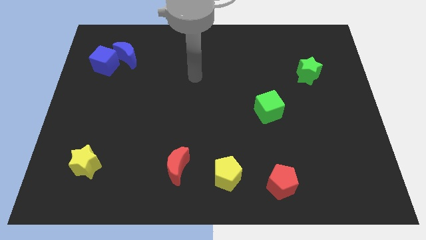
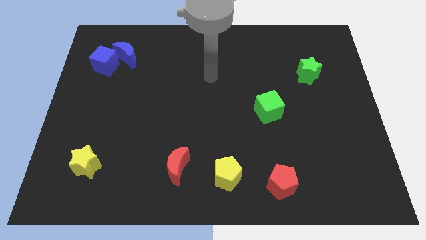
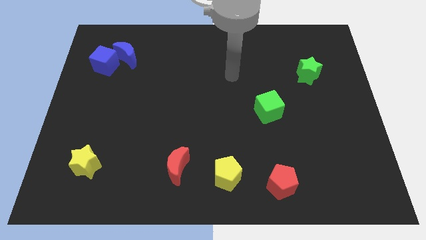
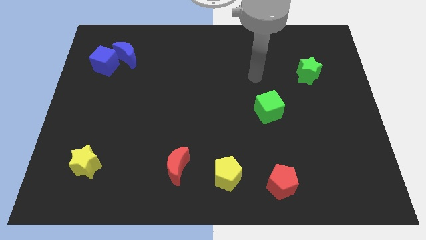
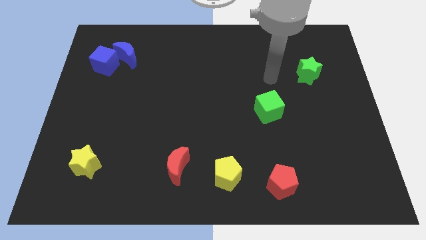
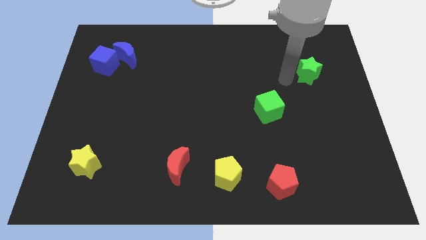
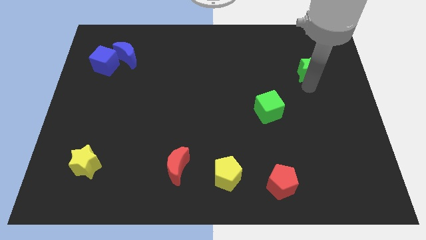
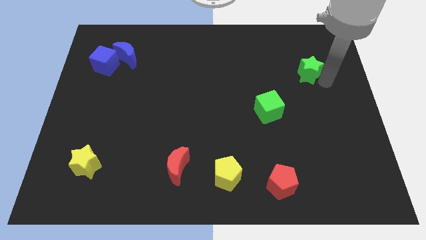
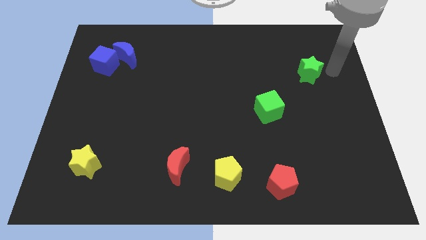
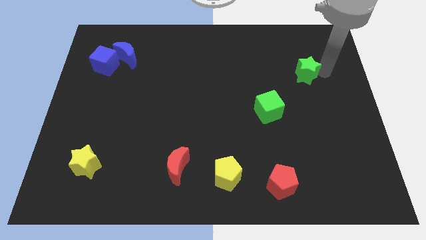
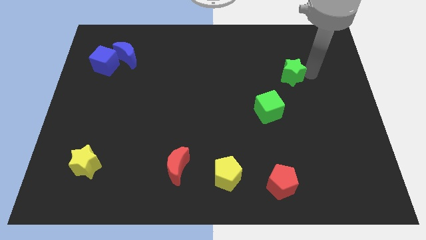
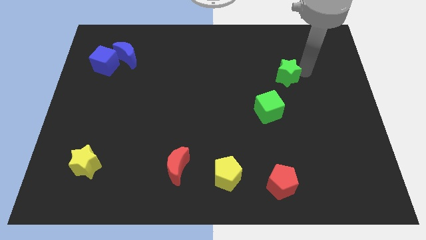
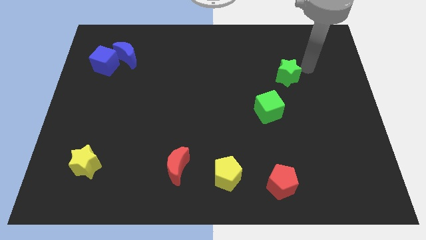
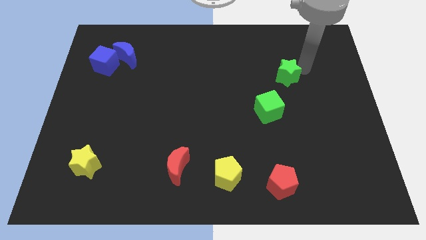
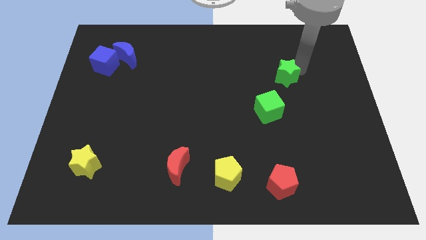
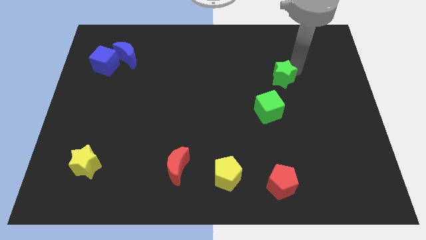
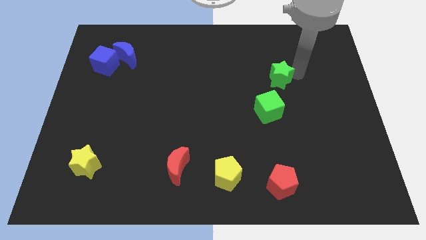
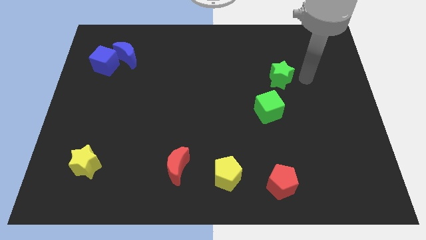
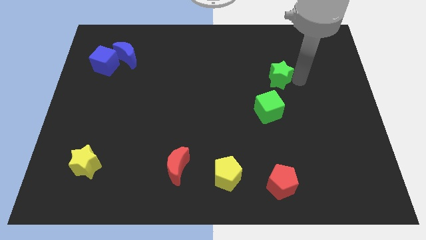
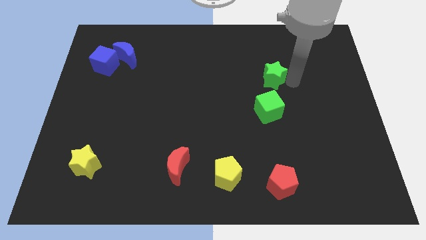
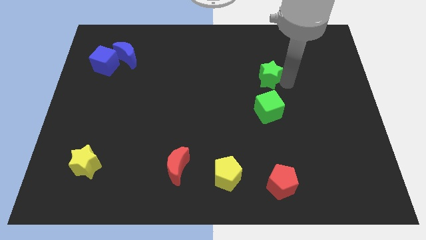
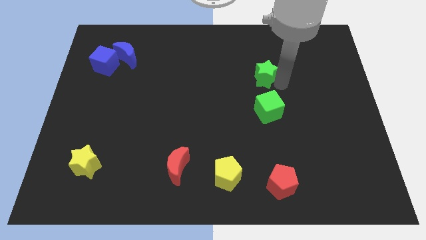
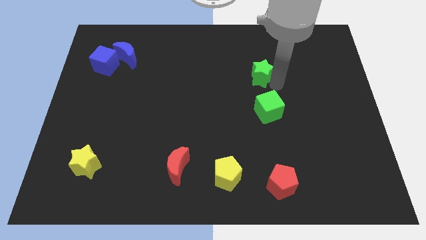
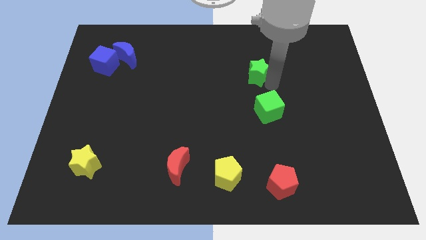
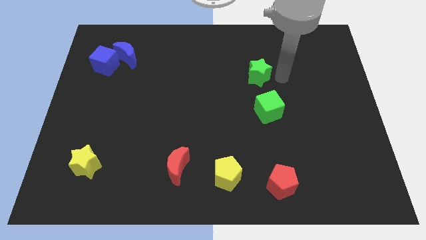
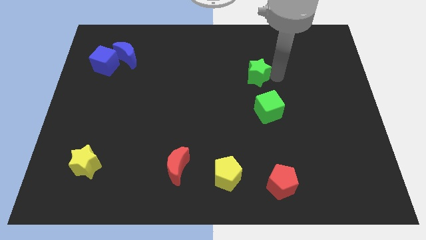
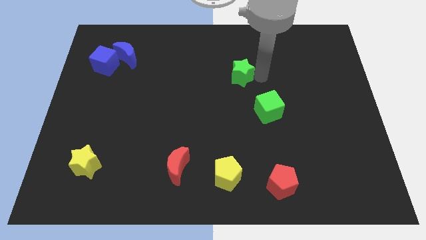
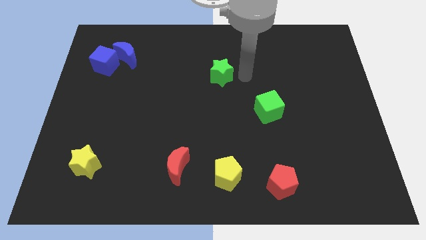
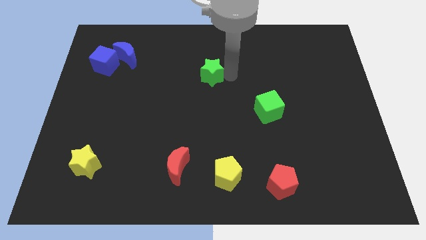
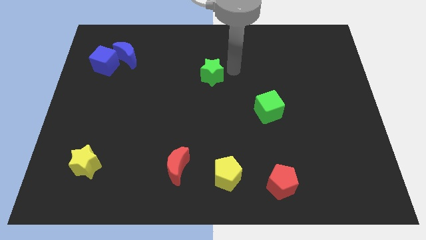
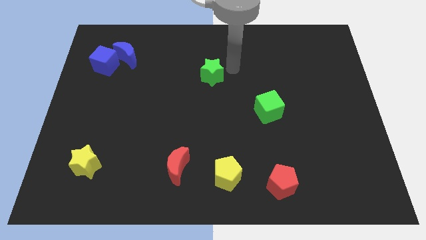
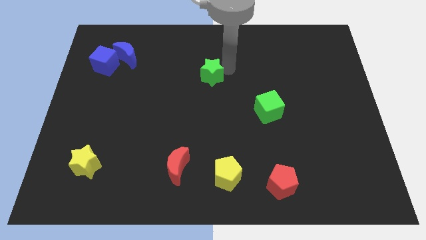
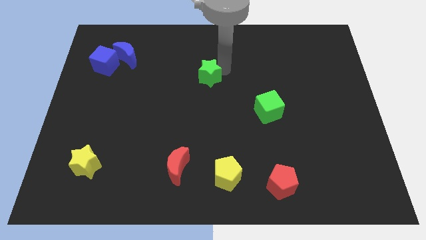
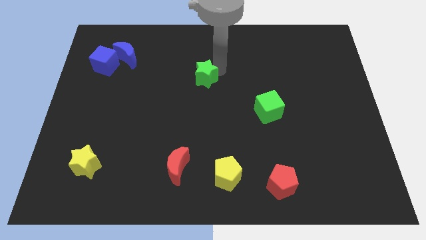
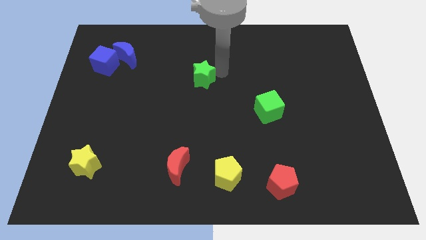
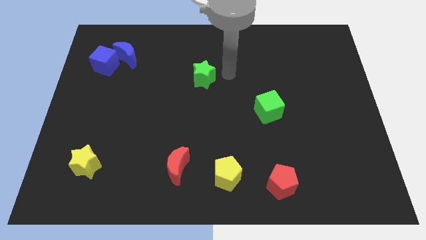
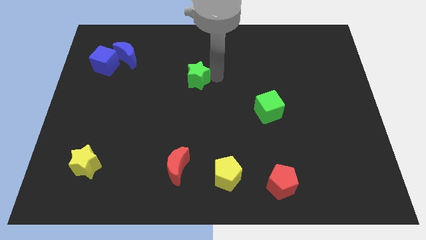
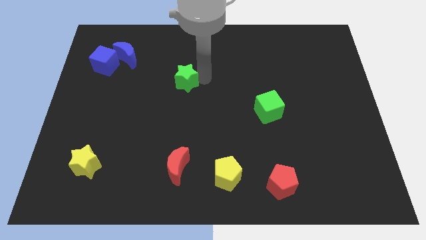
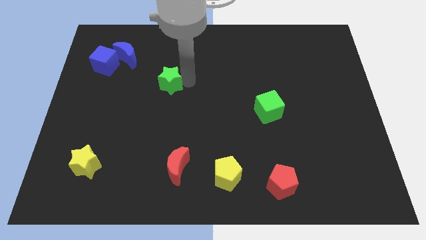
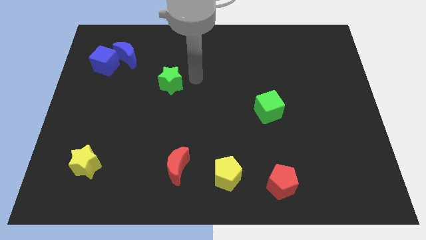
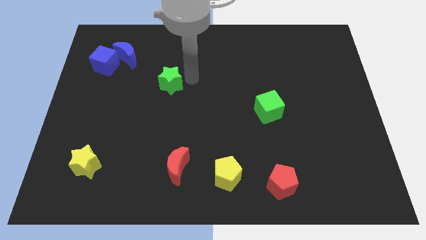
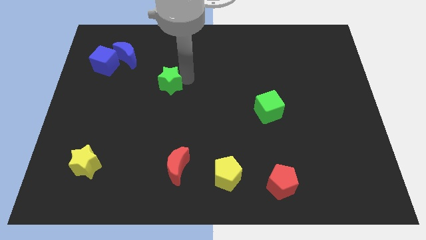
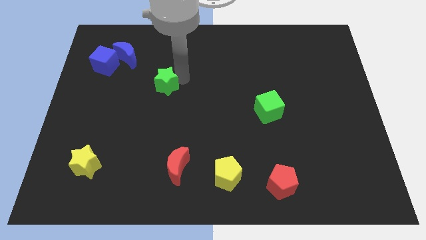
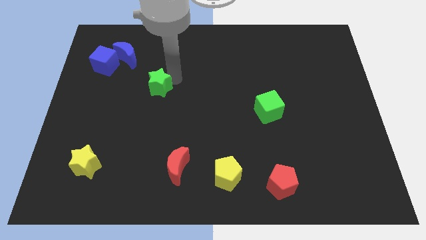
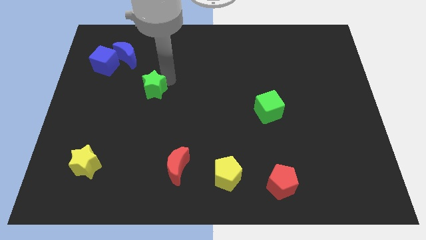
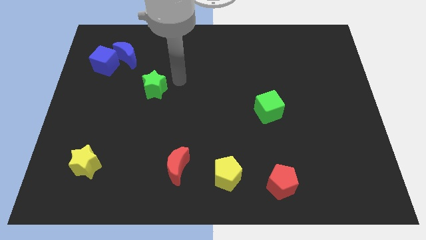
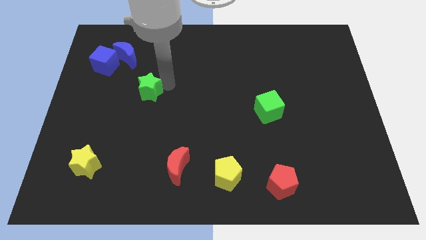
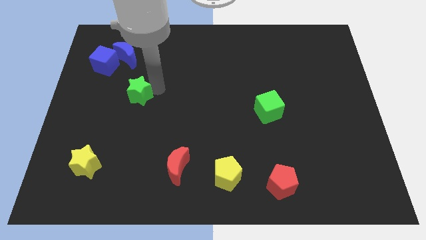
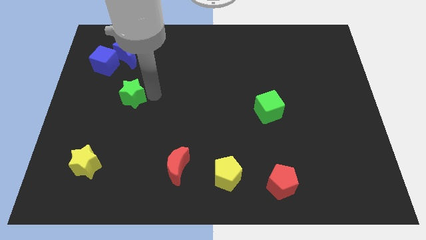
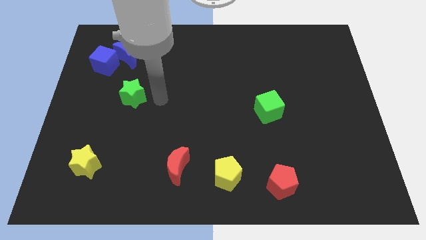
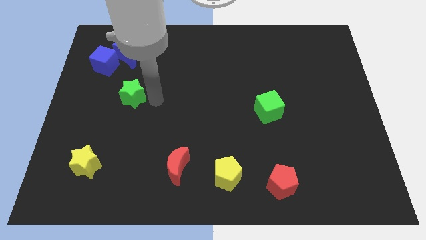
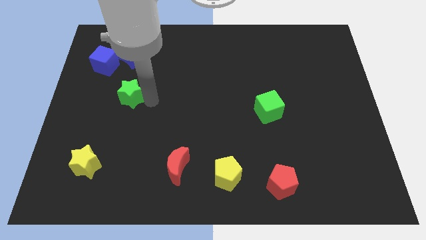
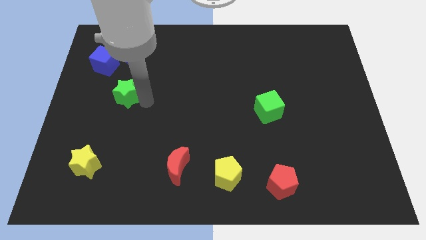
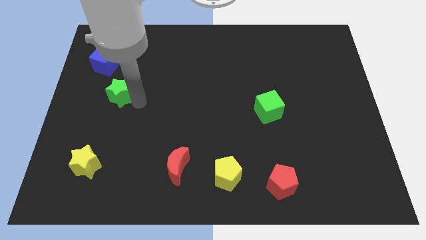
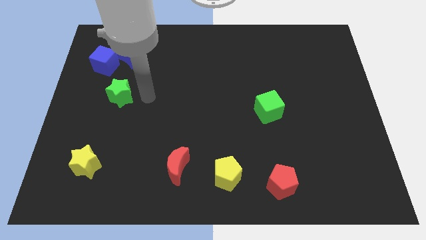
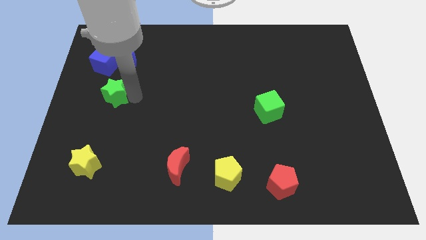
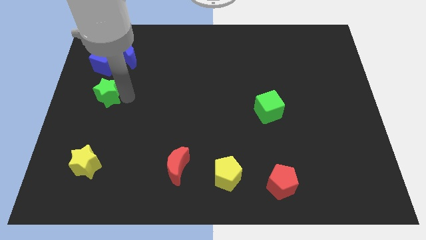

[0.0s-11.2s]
move the green star to the center left
